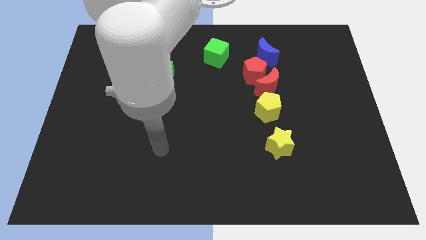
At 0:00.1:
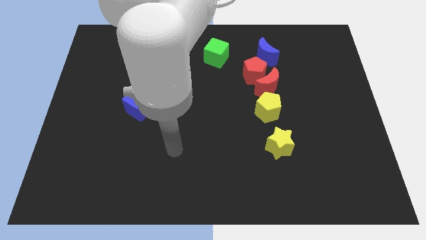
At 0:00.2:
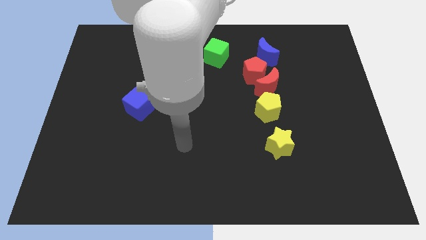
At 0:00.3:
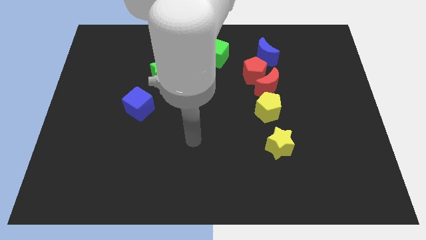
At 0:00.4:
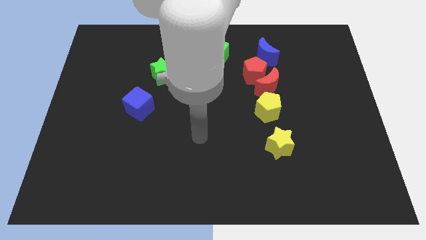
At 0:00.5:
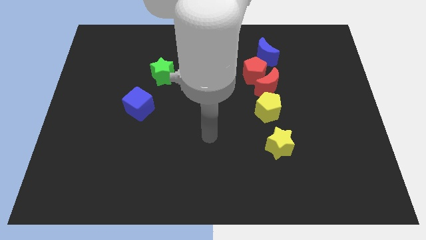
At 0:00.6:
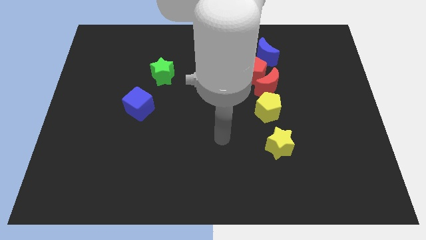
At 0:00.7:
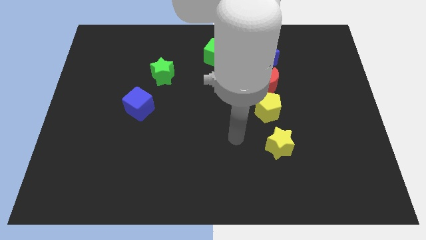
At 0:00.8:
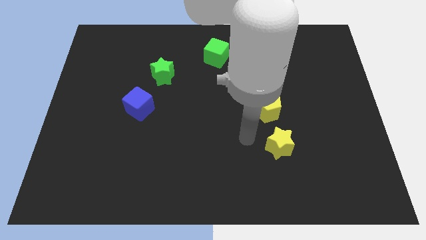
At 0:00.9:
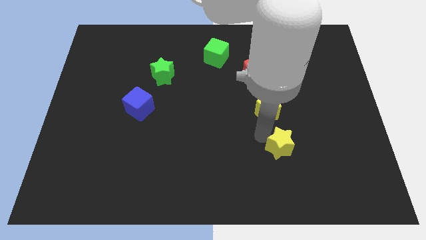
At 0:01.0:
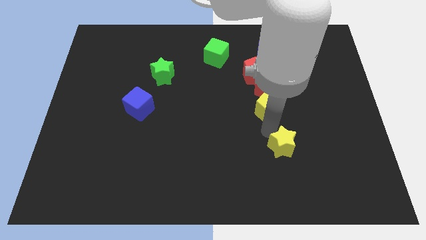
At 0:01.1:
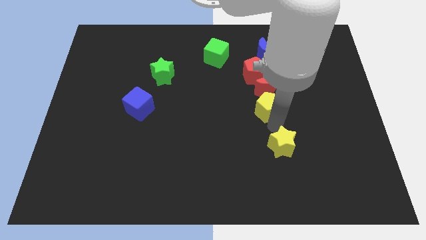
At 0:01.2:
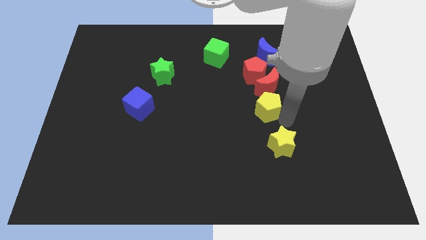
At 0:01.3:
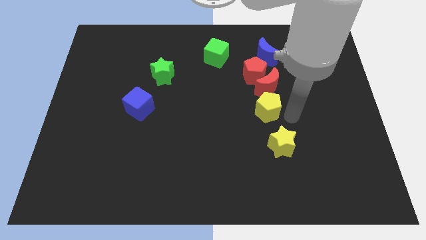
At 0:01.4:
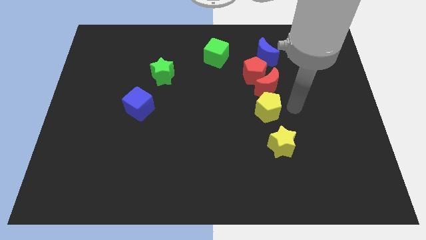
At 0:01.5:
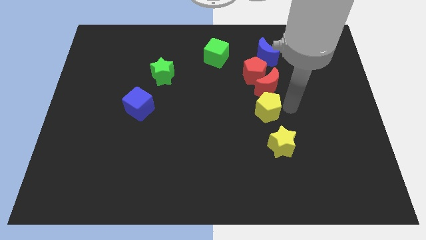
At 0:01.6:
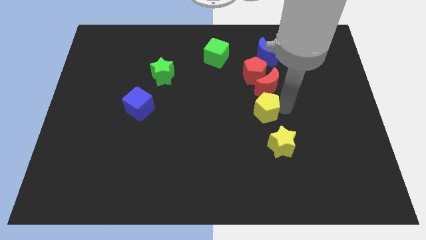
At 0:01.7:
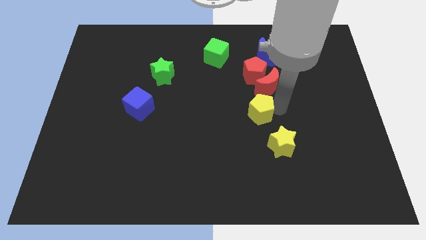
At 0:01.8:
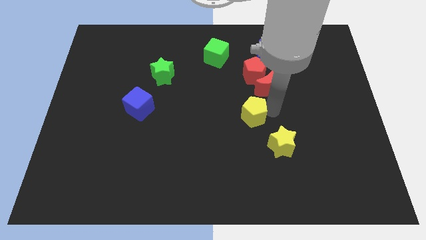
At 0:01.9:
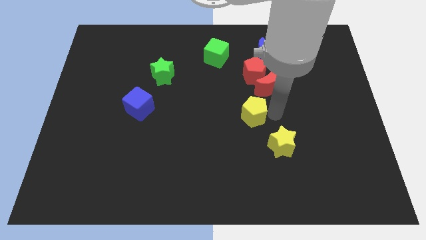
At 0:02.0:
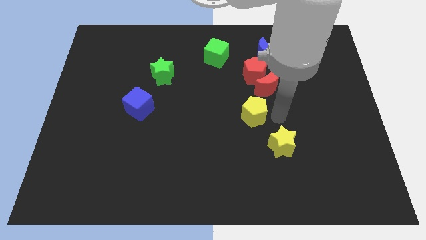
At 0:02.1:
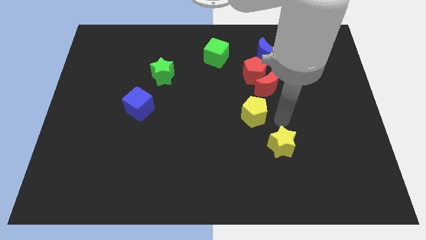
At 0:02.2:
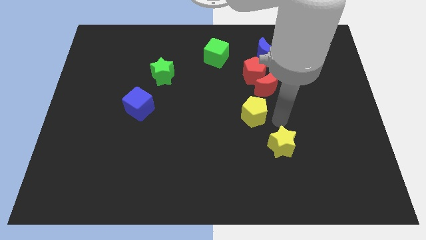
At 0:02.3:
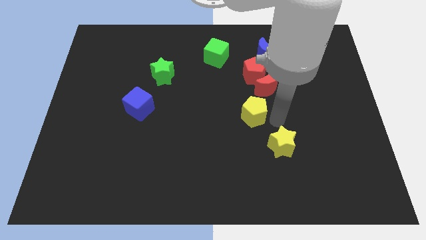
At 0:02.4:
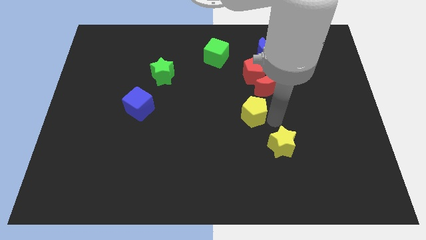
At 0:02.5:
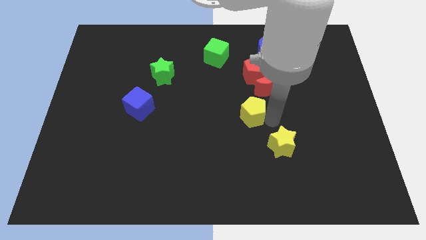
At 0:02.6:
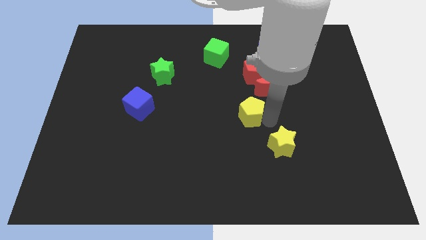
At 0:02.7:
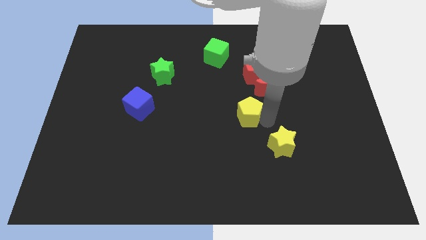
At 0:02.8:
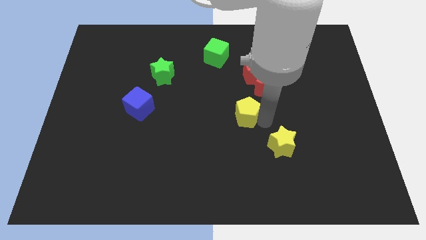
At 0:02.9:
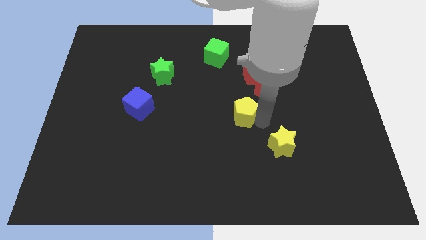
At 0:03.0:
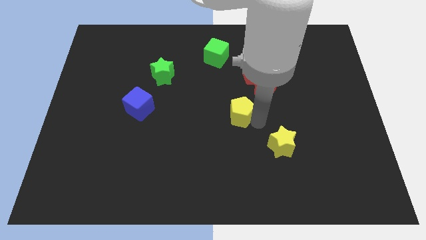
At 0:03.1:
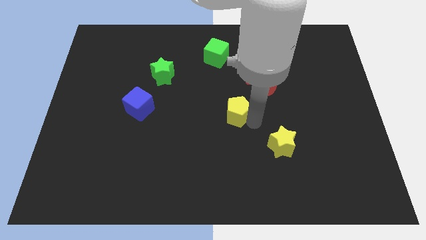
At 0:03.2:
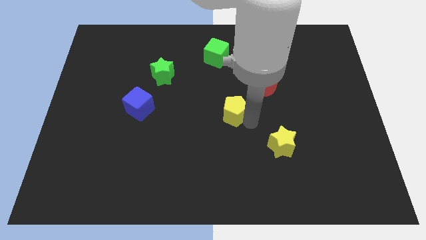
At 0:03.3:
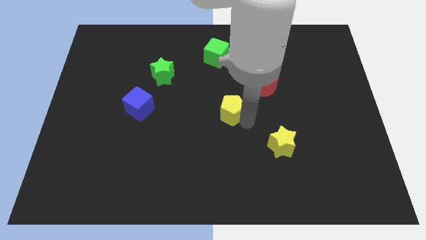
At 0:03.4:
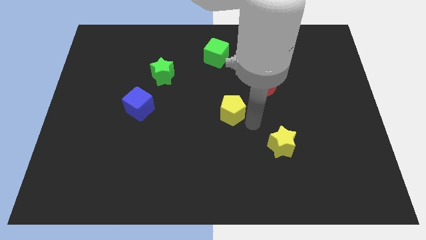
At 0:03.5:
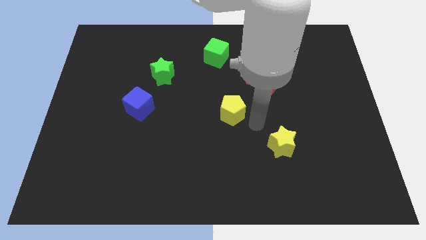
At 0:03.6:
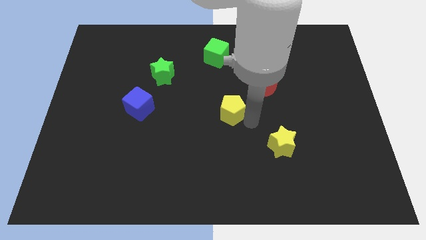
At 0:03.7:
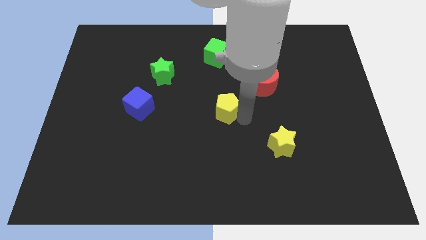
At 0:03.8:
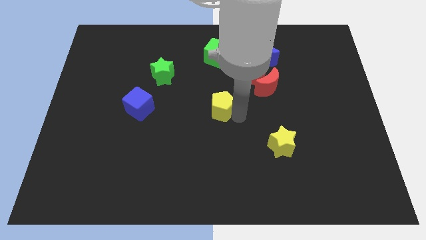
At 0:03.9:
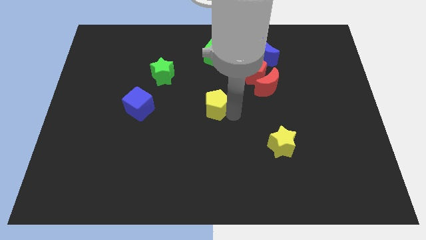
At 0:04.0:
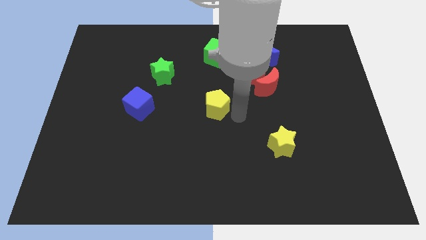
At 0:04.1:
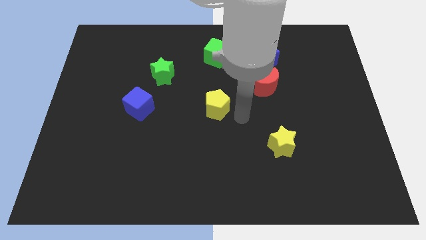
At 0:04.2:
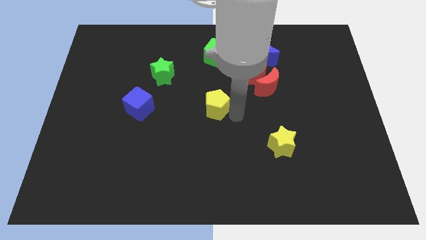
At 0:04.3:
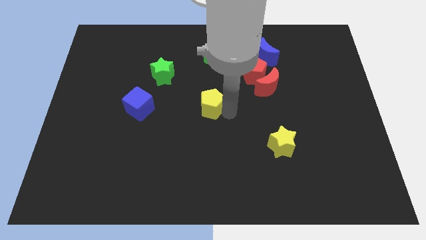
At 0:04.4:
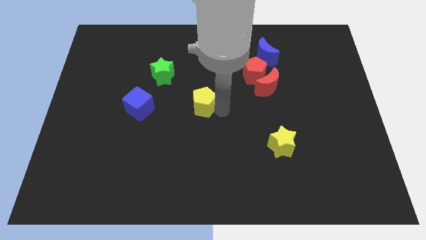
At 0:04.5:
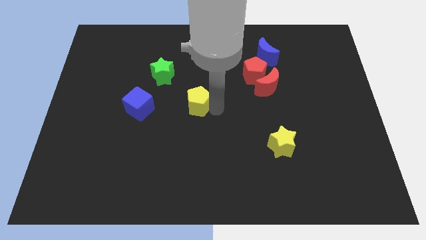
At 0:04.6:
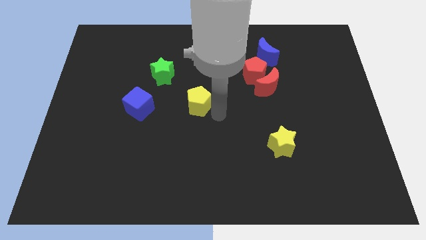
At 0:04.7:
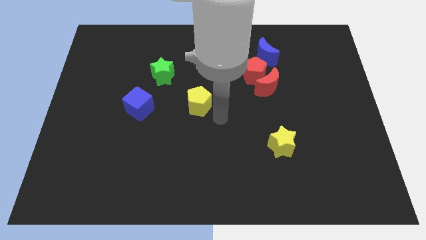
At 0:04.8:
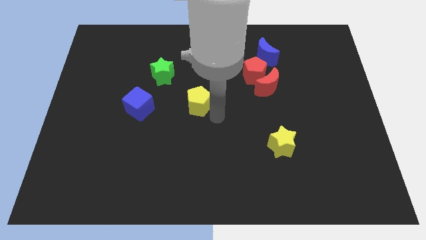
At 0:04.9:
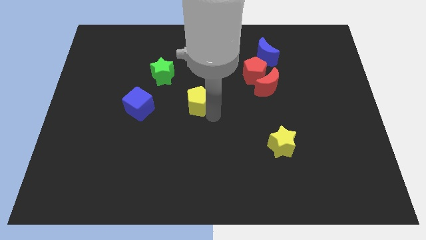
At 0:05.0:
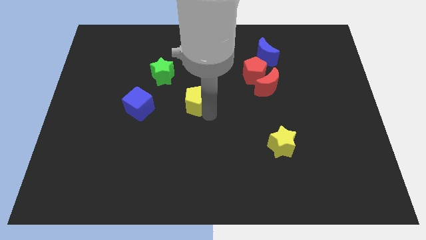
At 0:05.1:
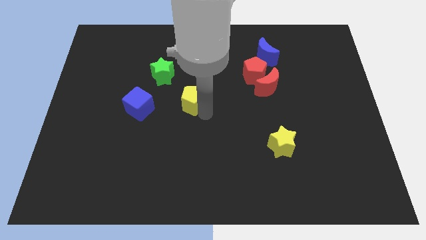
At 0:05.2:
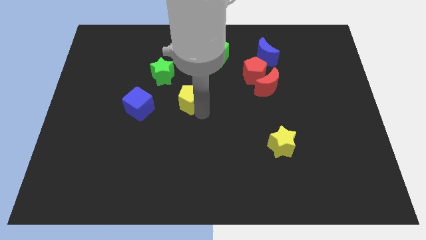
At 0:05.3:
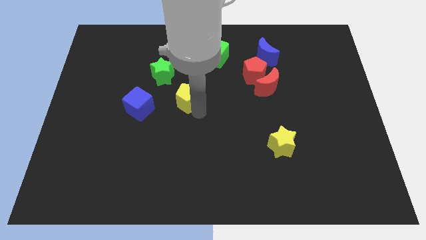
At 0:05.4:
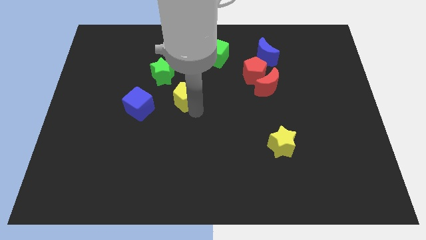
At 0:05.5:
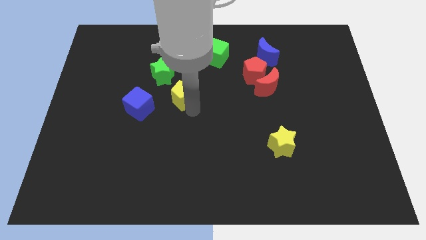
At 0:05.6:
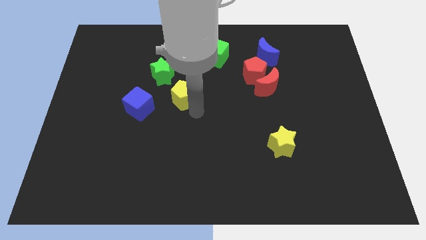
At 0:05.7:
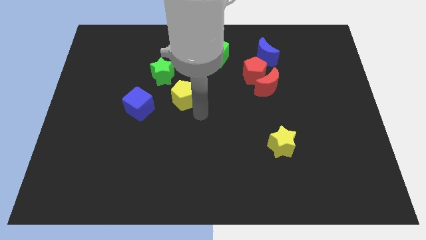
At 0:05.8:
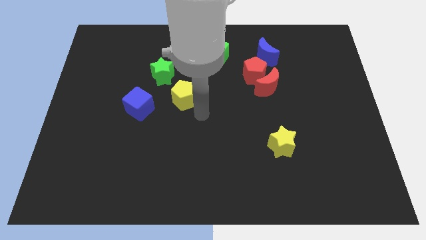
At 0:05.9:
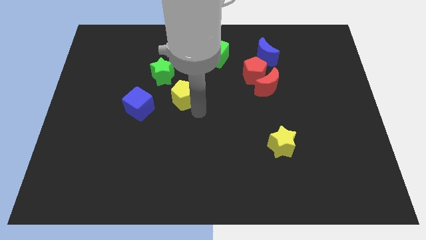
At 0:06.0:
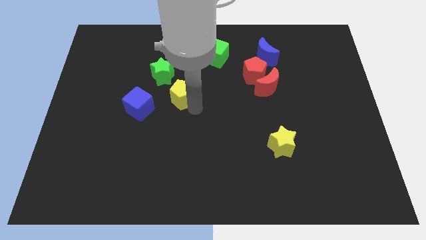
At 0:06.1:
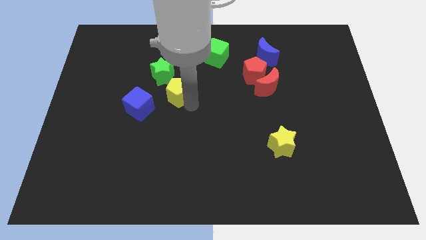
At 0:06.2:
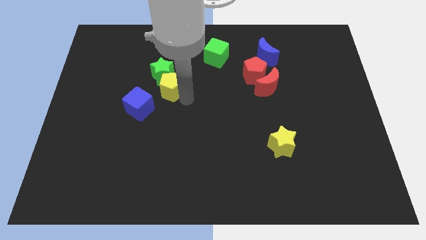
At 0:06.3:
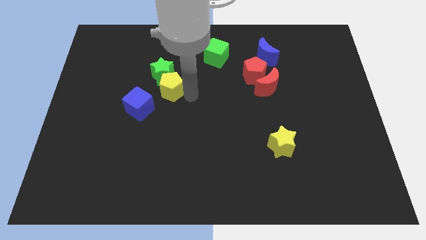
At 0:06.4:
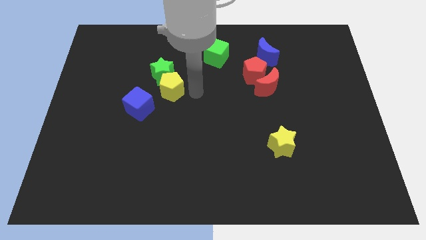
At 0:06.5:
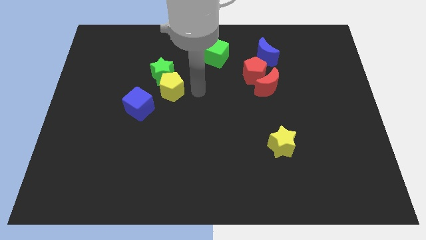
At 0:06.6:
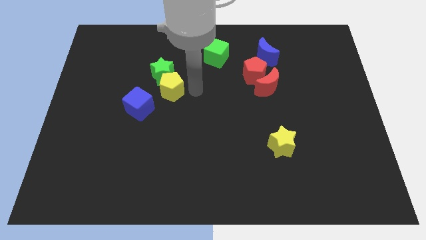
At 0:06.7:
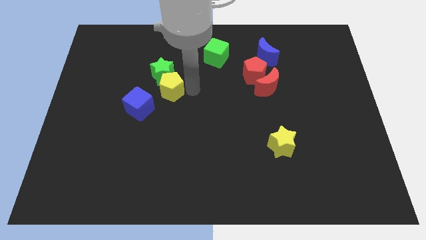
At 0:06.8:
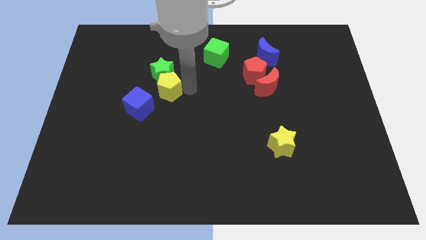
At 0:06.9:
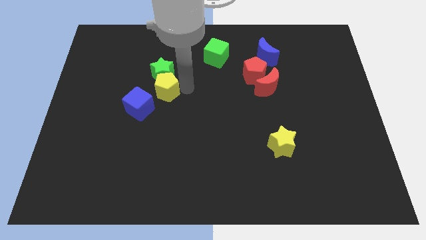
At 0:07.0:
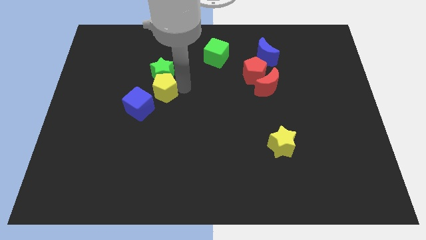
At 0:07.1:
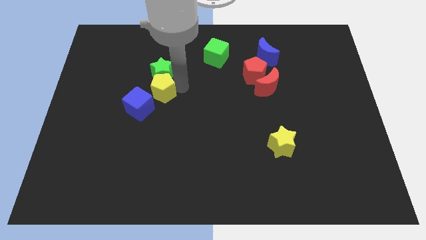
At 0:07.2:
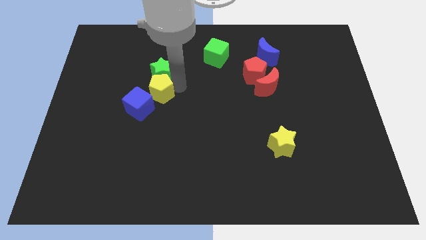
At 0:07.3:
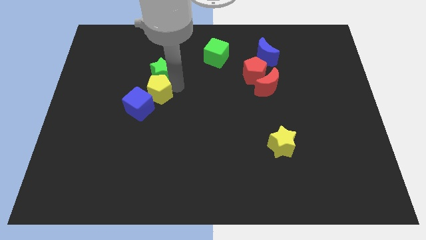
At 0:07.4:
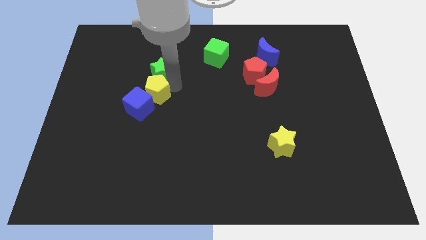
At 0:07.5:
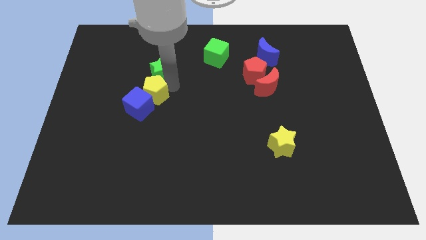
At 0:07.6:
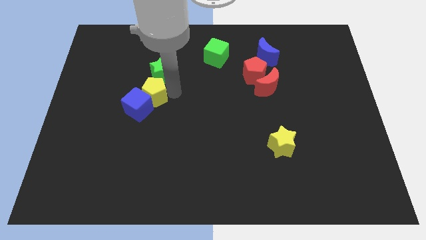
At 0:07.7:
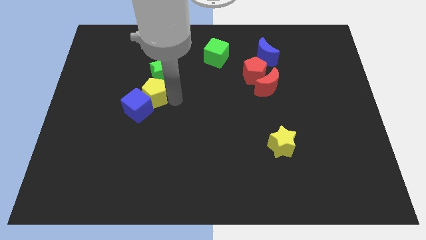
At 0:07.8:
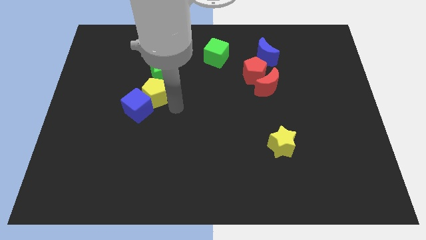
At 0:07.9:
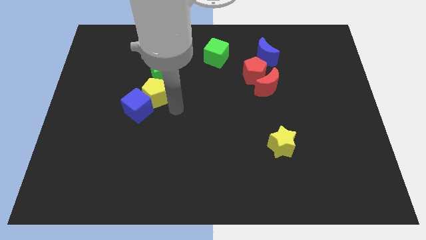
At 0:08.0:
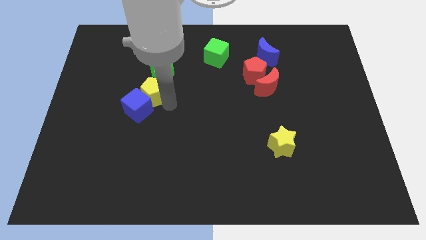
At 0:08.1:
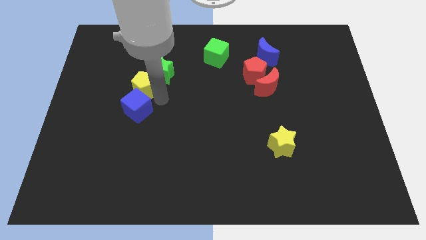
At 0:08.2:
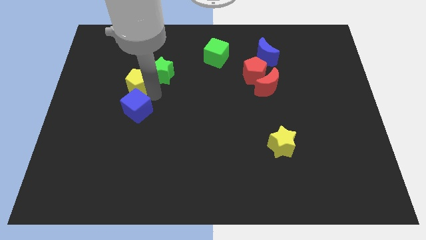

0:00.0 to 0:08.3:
slide the yellow pentagon just left of the green star

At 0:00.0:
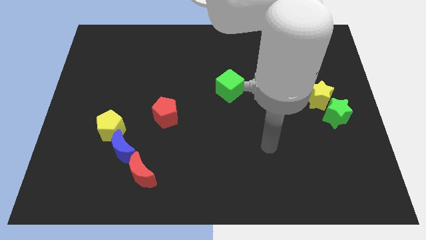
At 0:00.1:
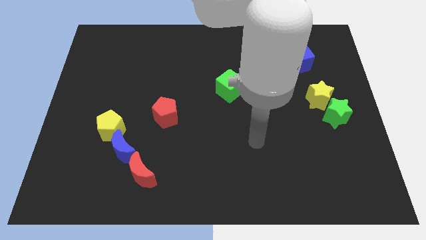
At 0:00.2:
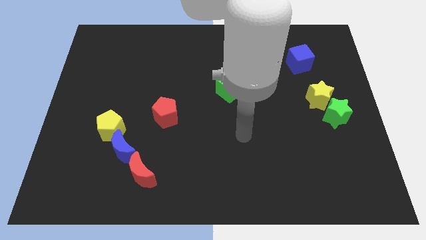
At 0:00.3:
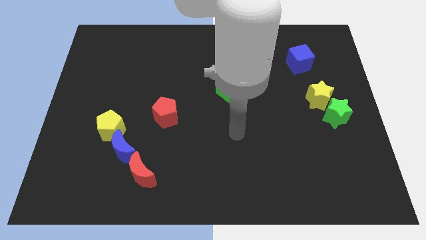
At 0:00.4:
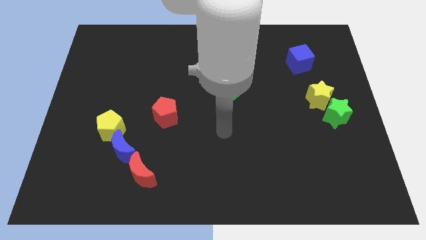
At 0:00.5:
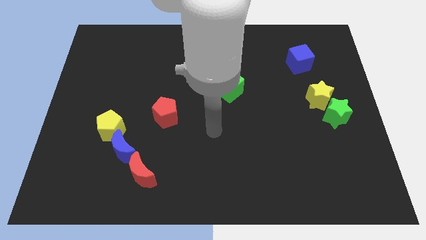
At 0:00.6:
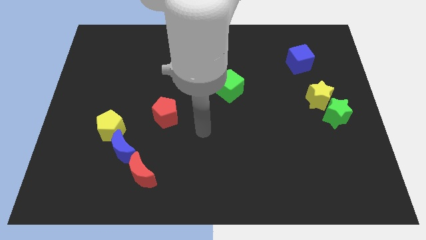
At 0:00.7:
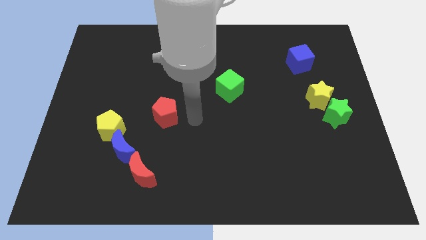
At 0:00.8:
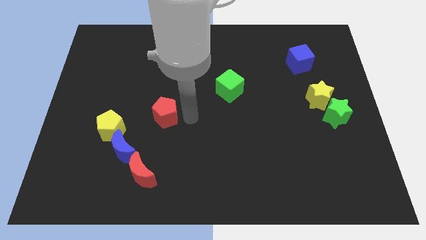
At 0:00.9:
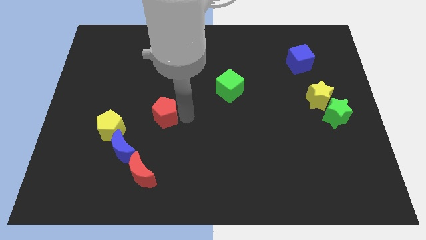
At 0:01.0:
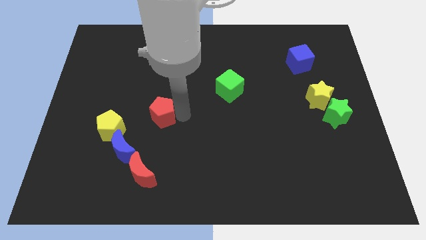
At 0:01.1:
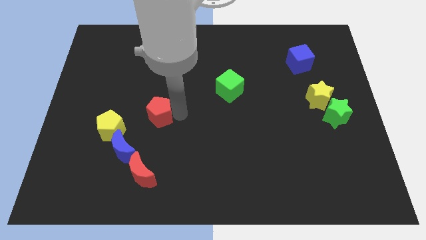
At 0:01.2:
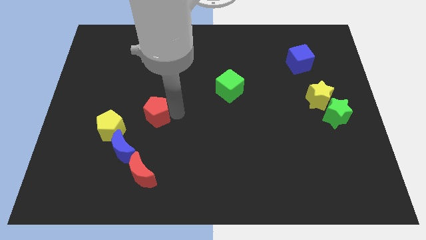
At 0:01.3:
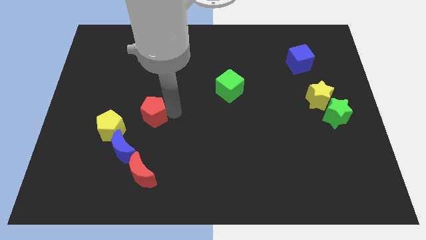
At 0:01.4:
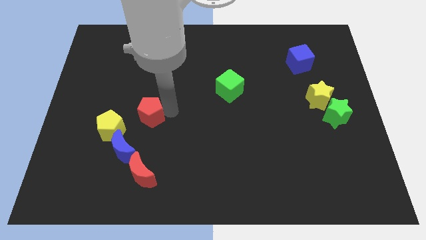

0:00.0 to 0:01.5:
put the red pentagon to the top of the blue moon
